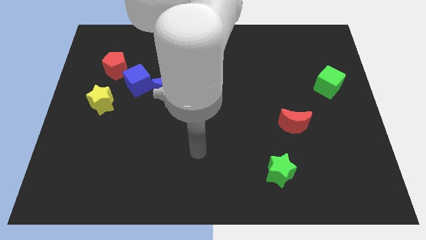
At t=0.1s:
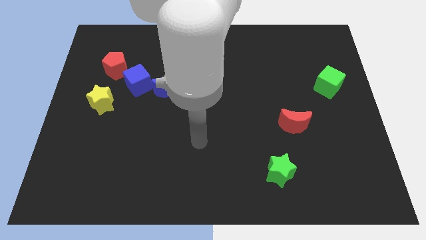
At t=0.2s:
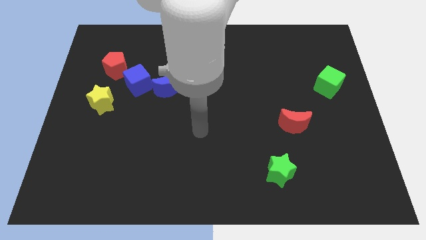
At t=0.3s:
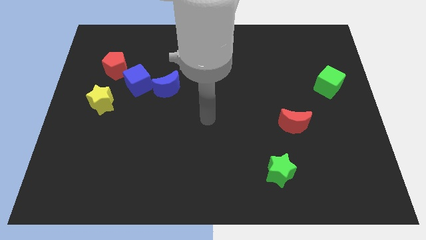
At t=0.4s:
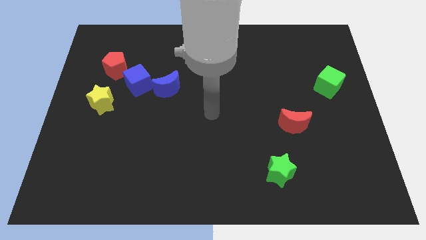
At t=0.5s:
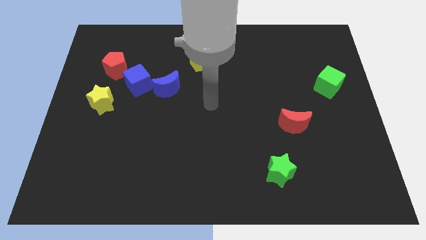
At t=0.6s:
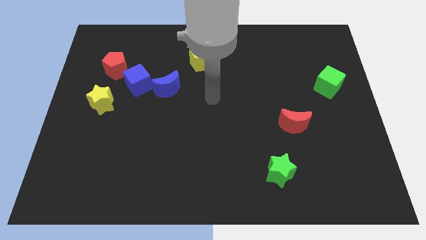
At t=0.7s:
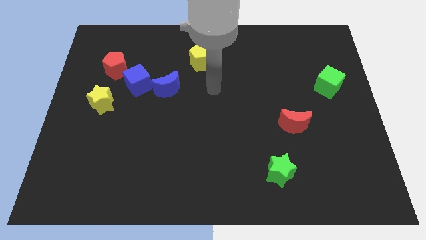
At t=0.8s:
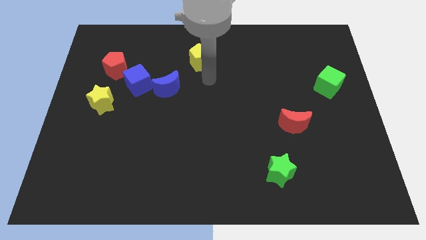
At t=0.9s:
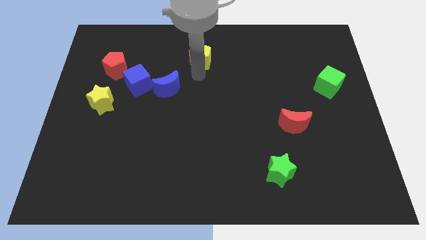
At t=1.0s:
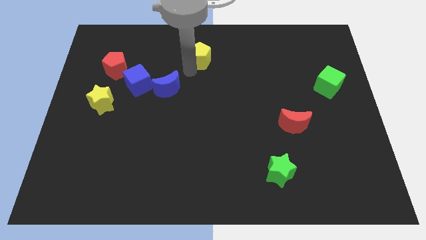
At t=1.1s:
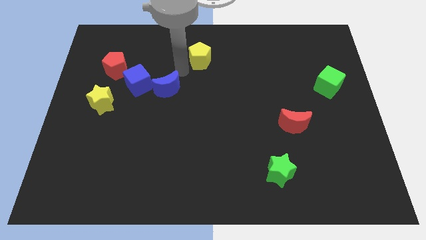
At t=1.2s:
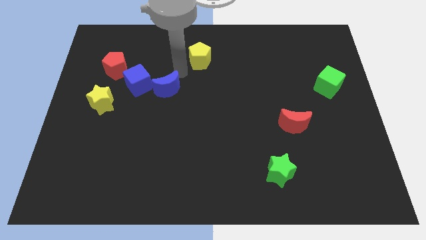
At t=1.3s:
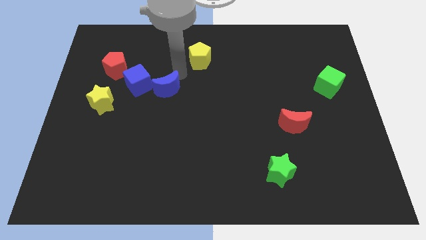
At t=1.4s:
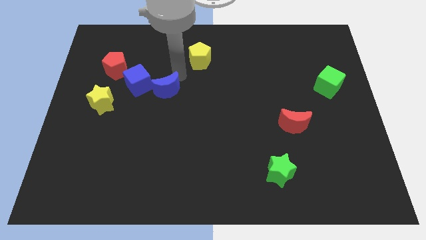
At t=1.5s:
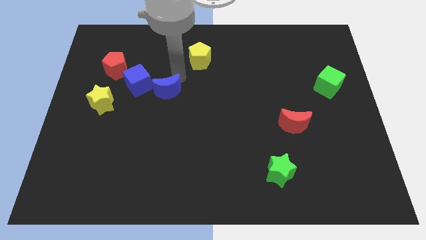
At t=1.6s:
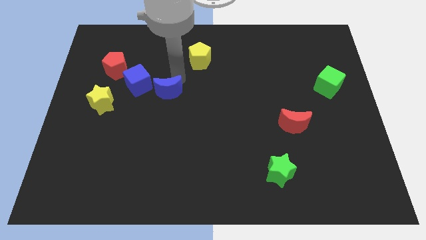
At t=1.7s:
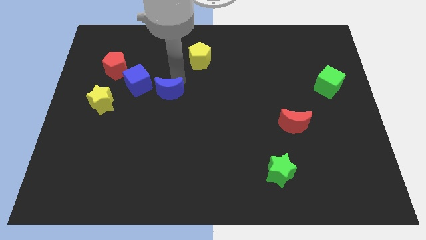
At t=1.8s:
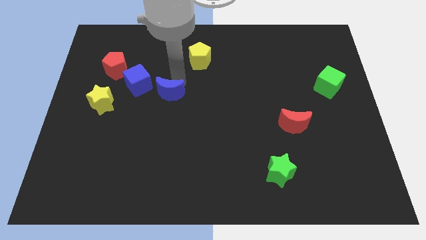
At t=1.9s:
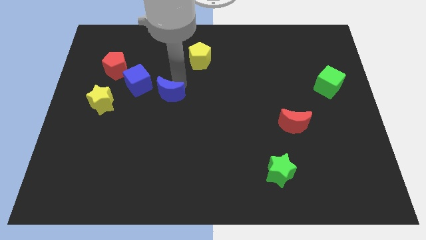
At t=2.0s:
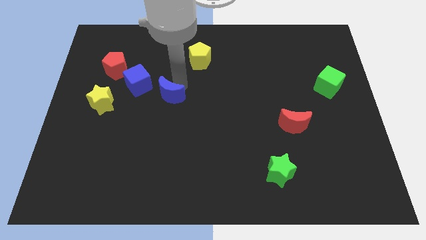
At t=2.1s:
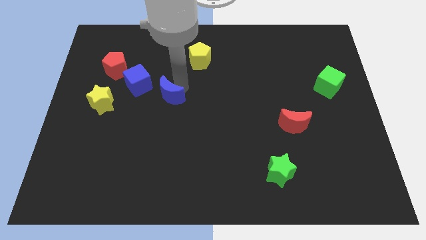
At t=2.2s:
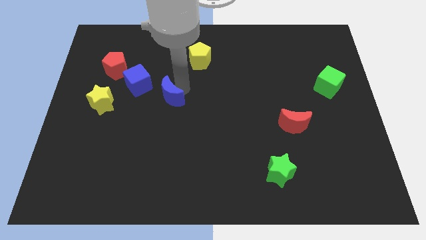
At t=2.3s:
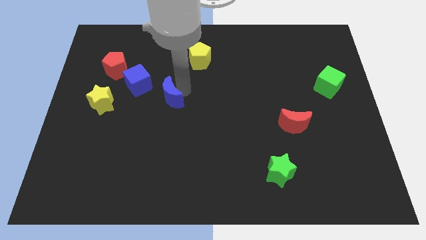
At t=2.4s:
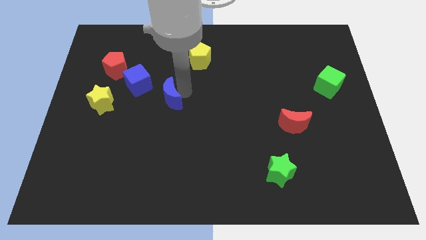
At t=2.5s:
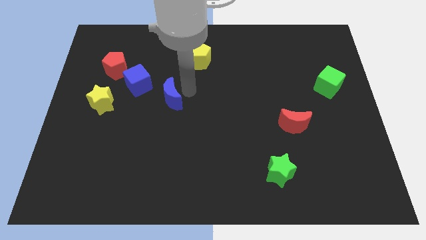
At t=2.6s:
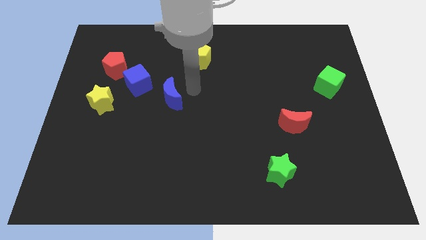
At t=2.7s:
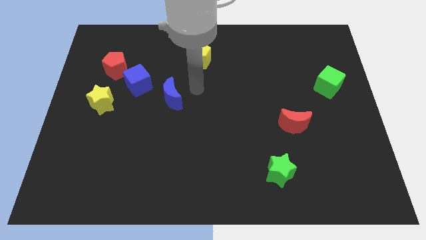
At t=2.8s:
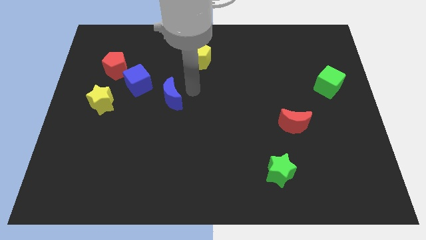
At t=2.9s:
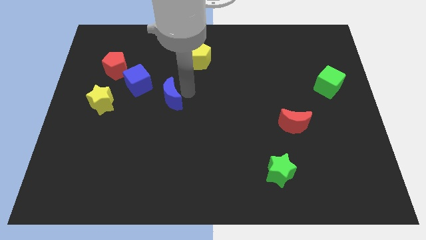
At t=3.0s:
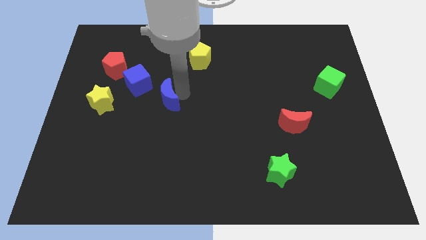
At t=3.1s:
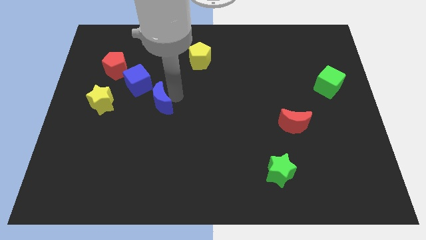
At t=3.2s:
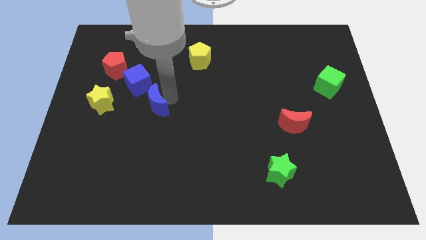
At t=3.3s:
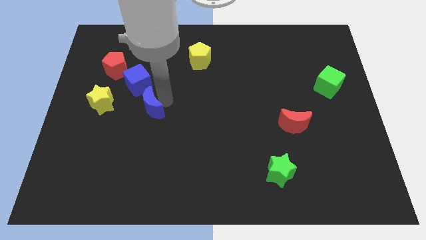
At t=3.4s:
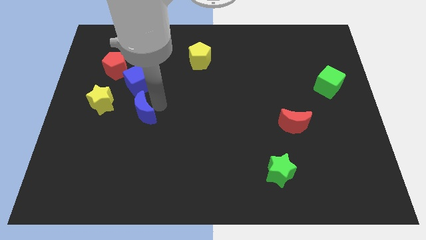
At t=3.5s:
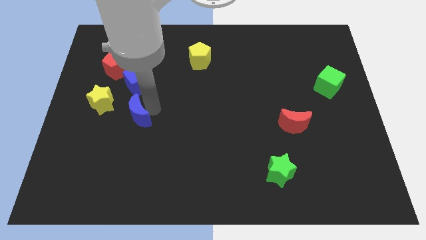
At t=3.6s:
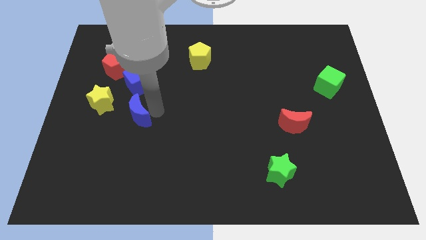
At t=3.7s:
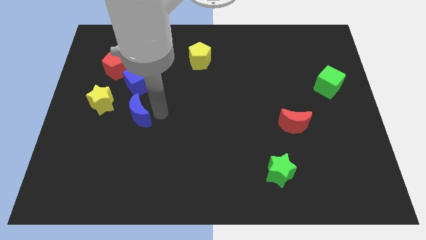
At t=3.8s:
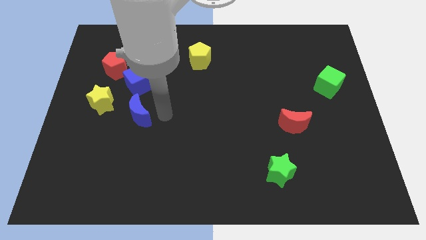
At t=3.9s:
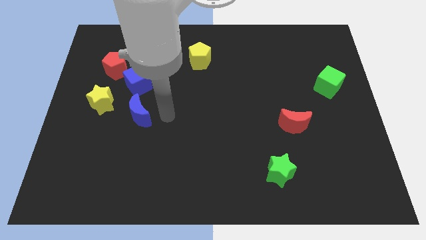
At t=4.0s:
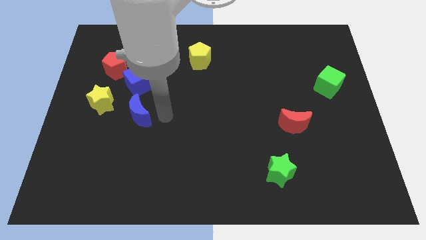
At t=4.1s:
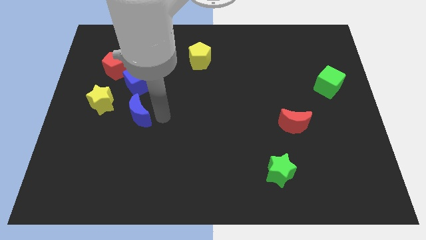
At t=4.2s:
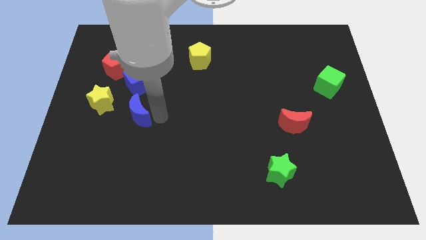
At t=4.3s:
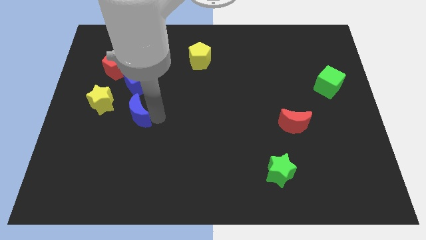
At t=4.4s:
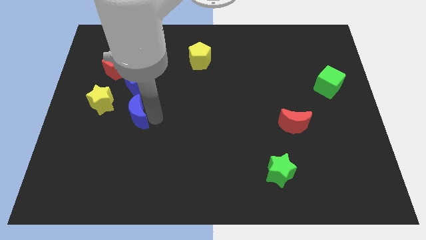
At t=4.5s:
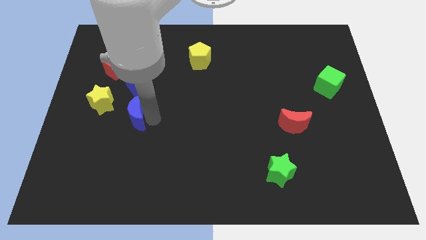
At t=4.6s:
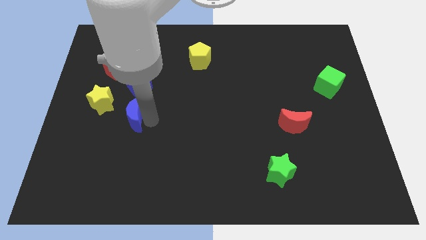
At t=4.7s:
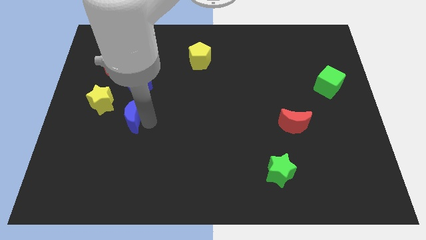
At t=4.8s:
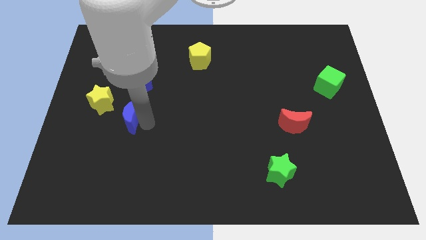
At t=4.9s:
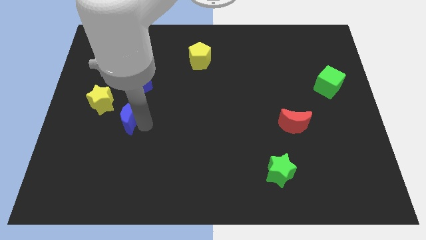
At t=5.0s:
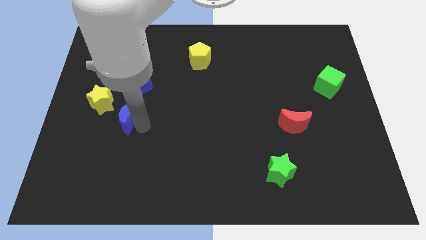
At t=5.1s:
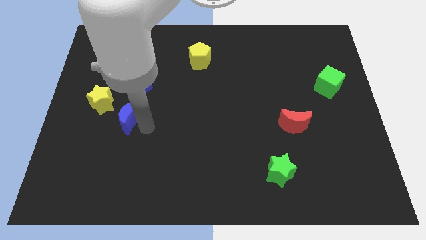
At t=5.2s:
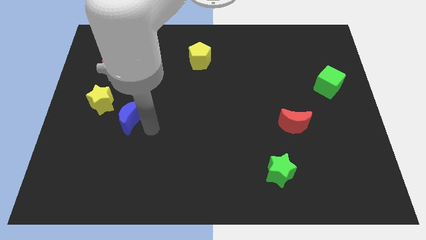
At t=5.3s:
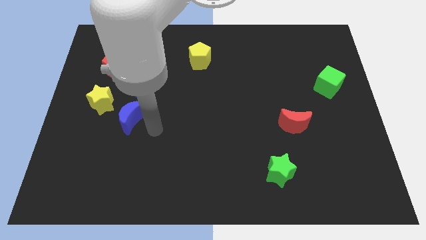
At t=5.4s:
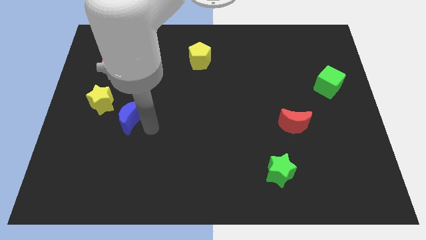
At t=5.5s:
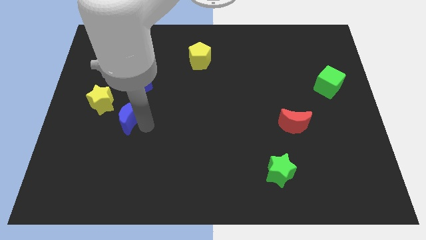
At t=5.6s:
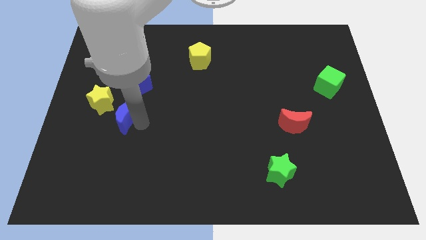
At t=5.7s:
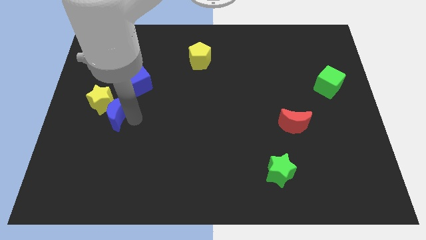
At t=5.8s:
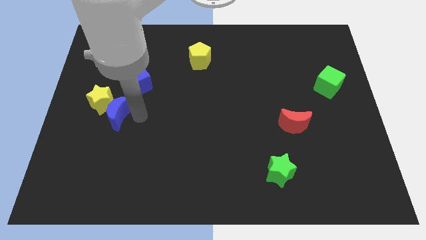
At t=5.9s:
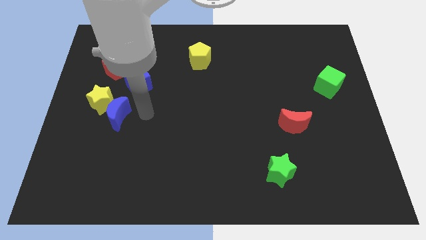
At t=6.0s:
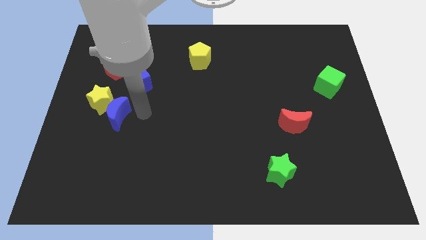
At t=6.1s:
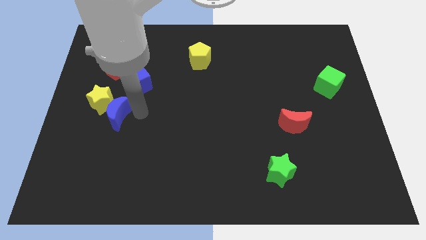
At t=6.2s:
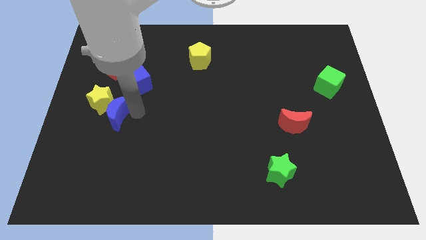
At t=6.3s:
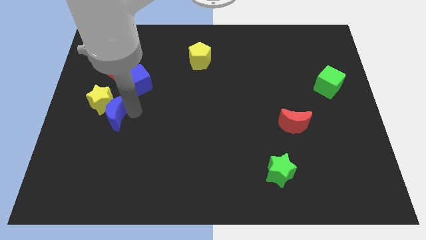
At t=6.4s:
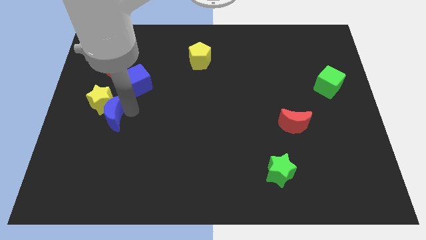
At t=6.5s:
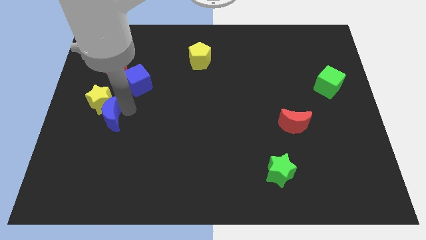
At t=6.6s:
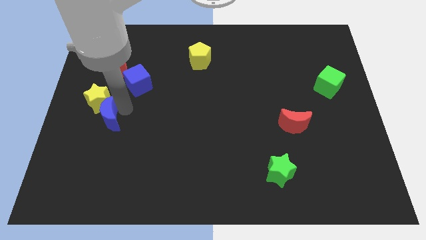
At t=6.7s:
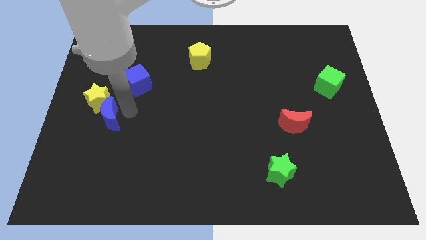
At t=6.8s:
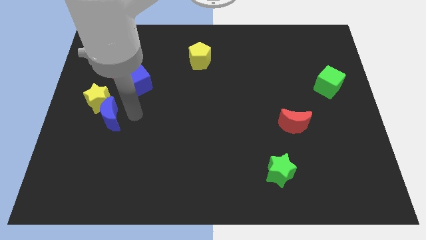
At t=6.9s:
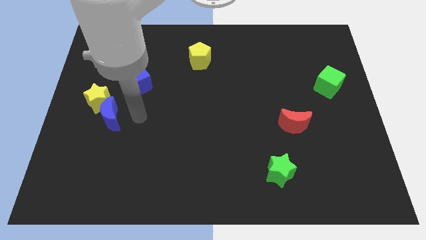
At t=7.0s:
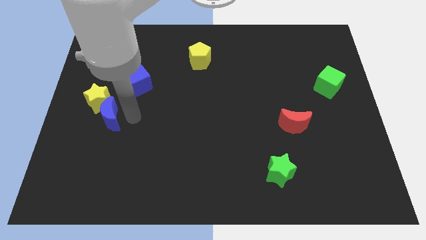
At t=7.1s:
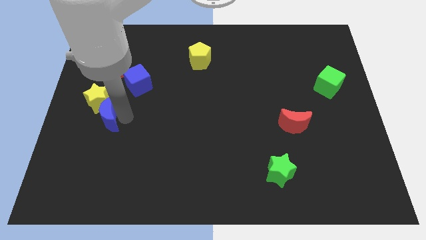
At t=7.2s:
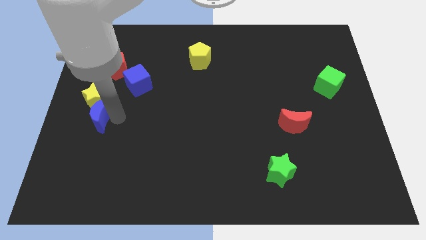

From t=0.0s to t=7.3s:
slide the blue moon to the left side

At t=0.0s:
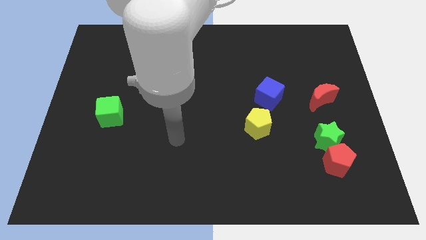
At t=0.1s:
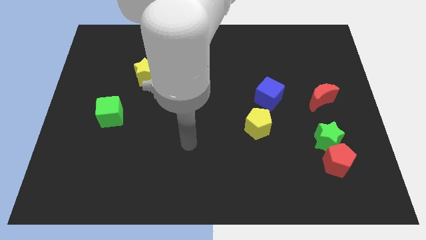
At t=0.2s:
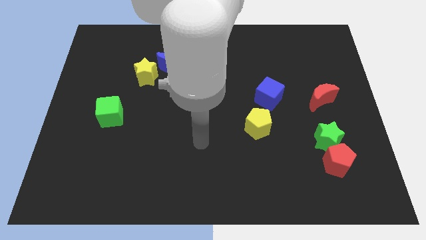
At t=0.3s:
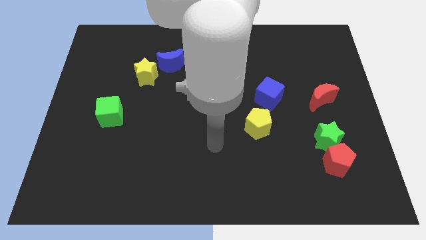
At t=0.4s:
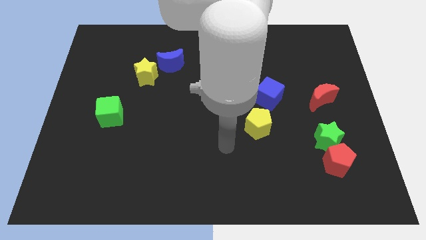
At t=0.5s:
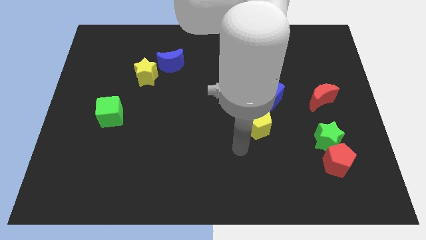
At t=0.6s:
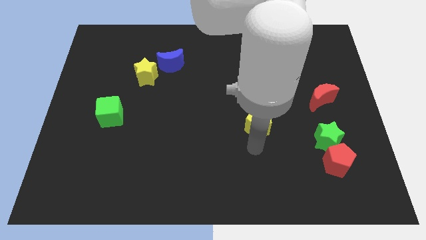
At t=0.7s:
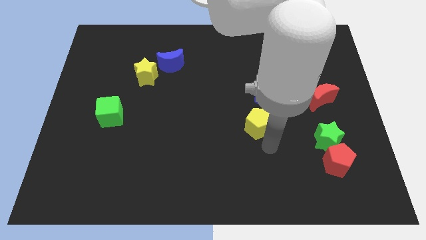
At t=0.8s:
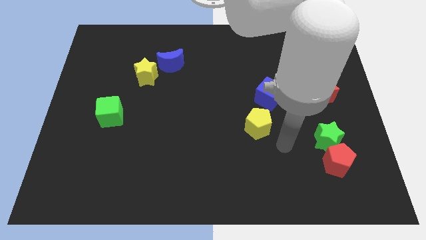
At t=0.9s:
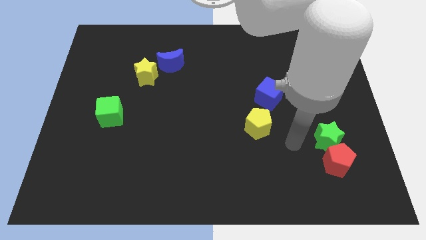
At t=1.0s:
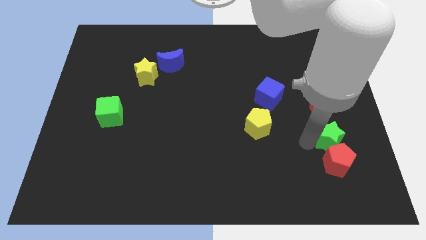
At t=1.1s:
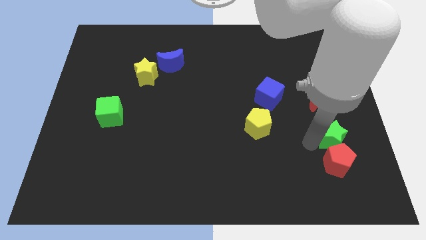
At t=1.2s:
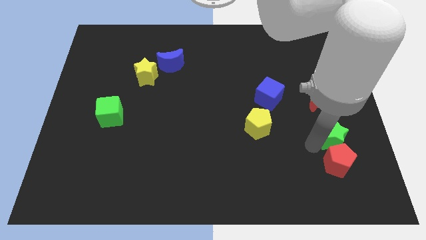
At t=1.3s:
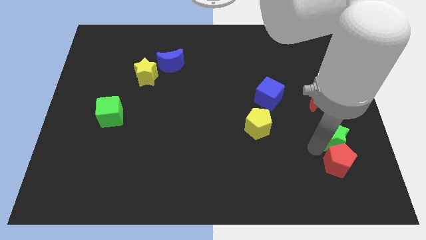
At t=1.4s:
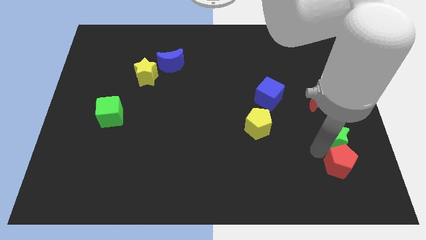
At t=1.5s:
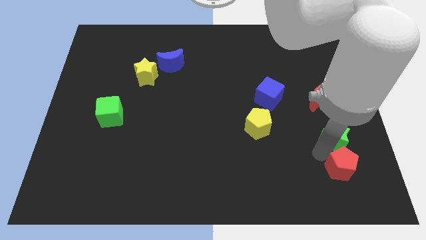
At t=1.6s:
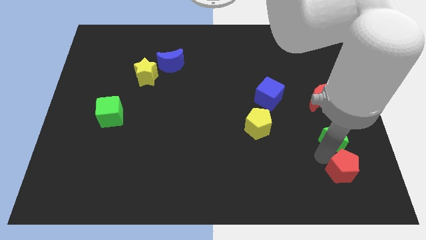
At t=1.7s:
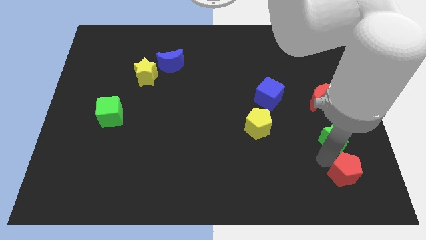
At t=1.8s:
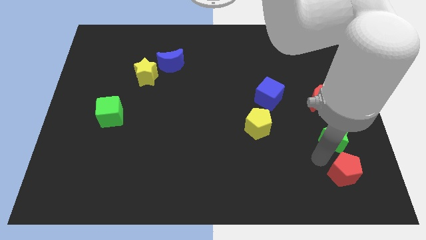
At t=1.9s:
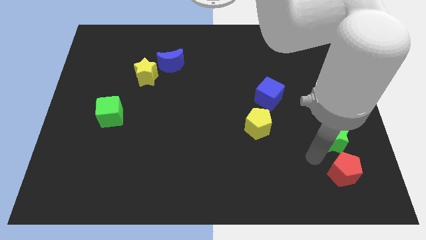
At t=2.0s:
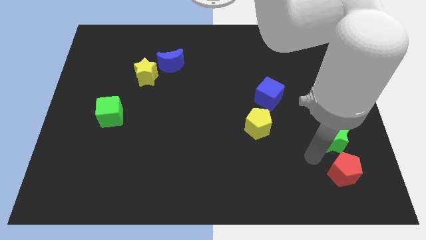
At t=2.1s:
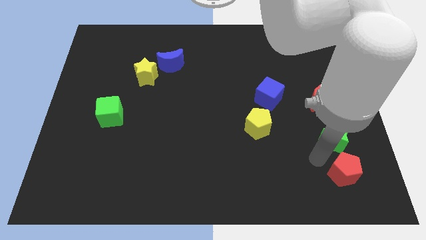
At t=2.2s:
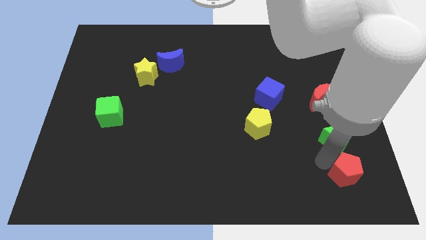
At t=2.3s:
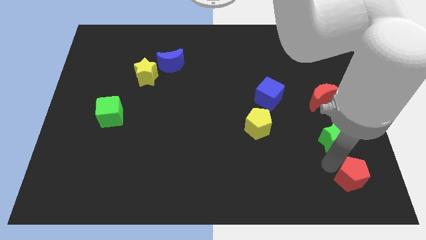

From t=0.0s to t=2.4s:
move the red pentagon to the bottom right corner
